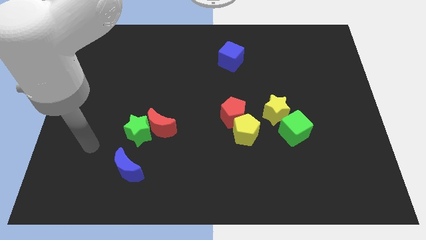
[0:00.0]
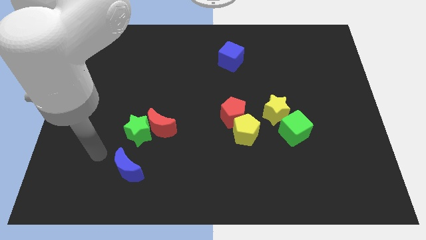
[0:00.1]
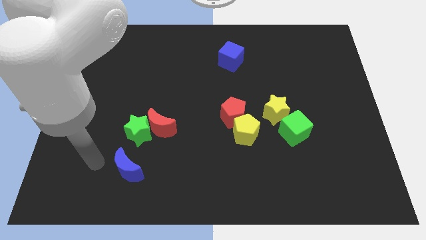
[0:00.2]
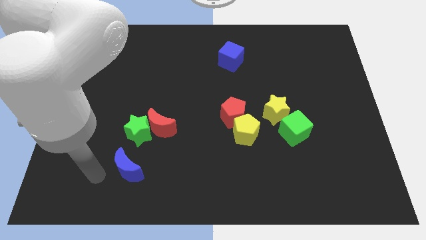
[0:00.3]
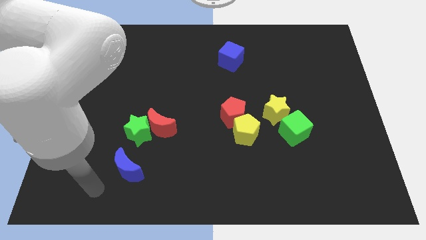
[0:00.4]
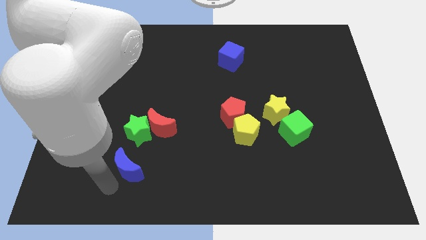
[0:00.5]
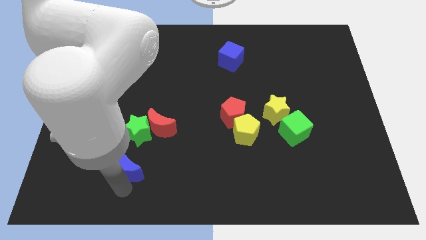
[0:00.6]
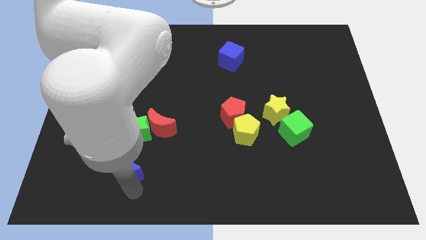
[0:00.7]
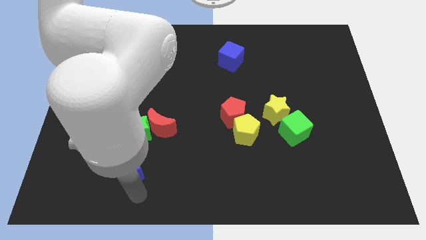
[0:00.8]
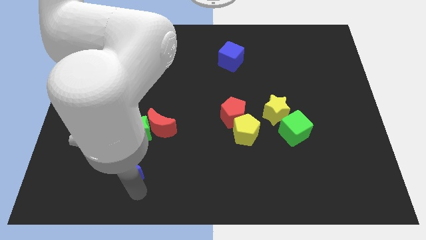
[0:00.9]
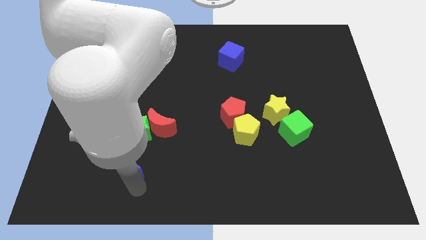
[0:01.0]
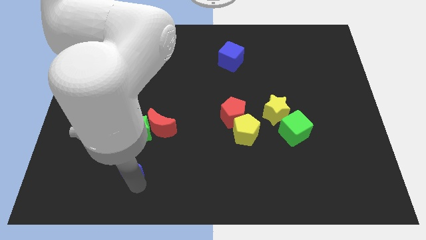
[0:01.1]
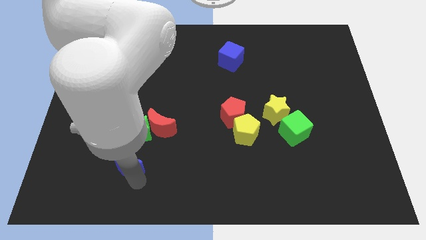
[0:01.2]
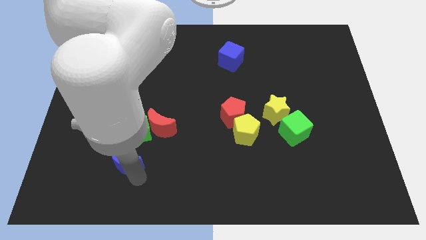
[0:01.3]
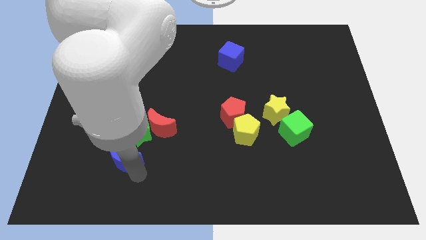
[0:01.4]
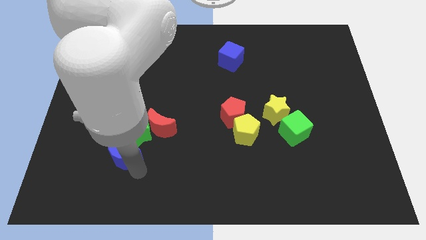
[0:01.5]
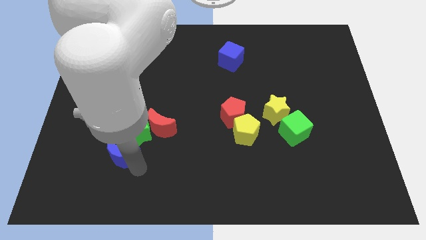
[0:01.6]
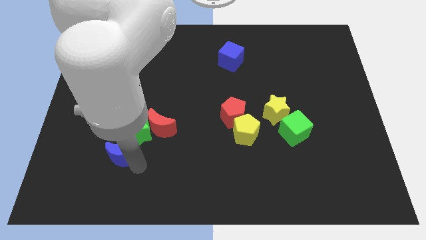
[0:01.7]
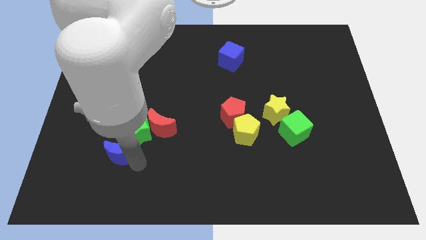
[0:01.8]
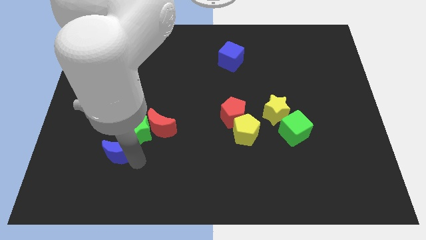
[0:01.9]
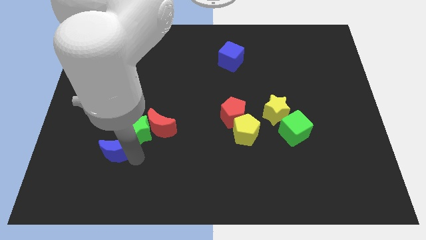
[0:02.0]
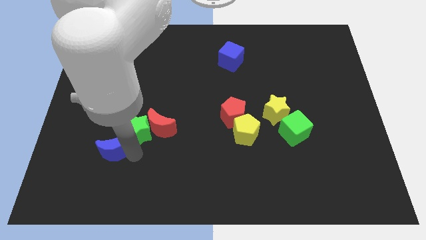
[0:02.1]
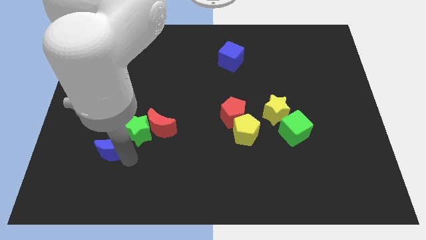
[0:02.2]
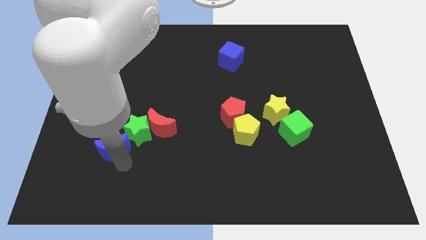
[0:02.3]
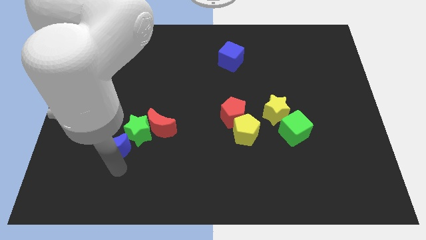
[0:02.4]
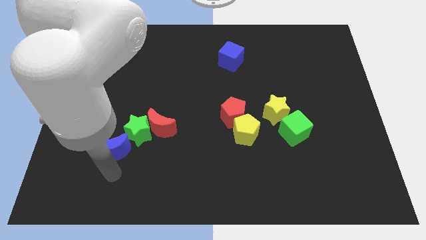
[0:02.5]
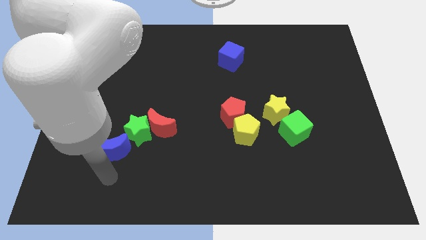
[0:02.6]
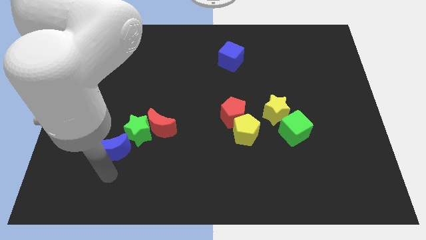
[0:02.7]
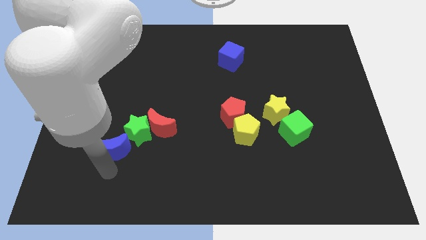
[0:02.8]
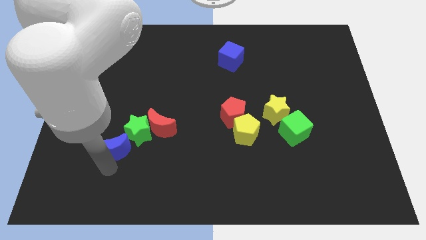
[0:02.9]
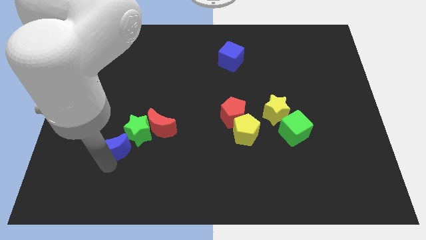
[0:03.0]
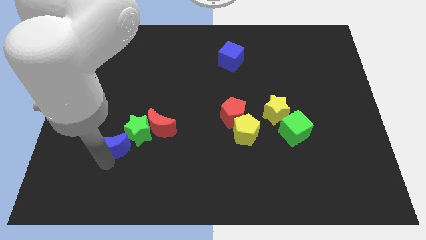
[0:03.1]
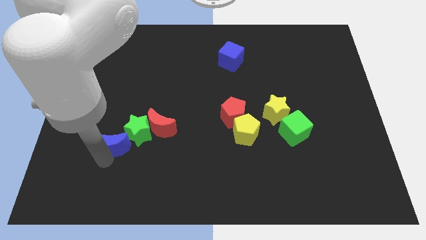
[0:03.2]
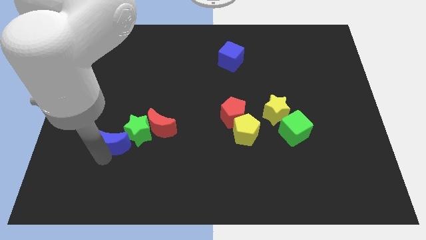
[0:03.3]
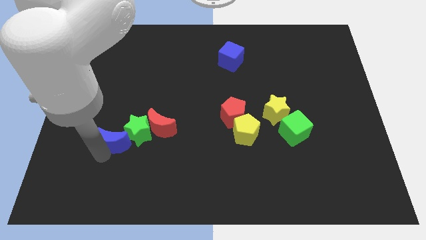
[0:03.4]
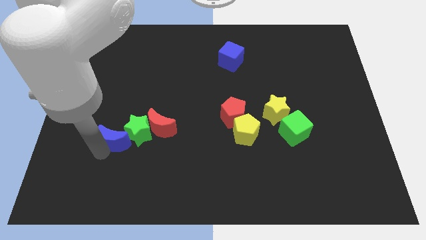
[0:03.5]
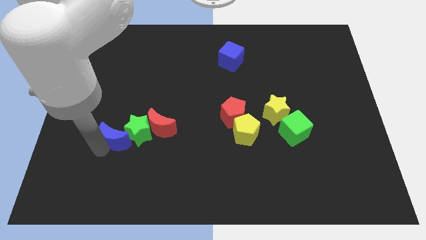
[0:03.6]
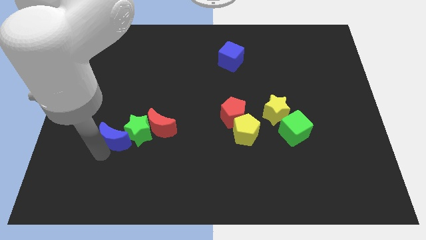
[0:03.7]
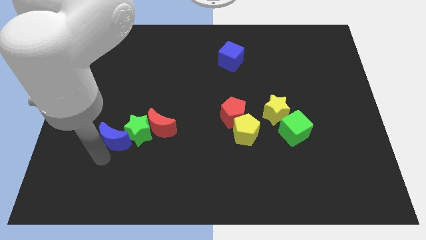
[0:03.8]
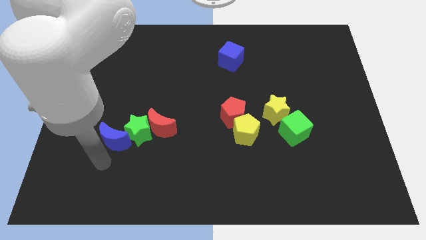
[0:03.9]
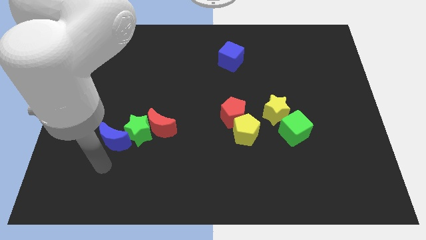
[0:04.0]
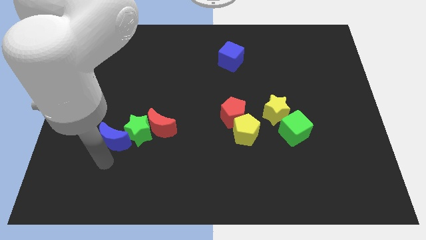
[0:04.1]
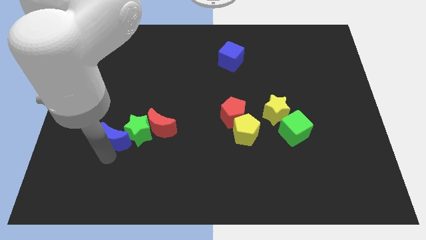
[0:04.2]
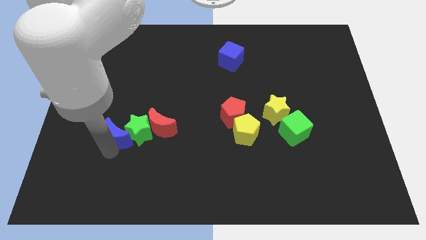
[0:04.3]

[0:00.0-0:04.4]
slide the blue moon somewhat up

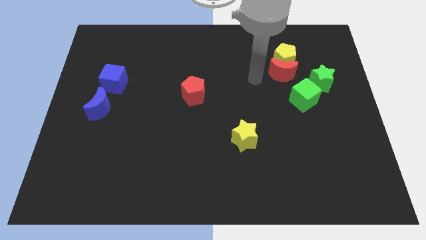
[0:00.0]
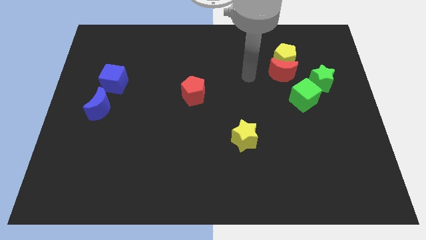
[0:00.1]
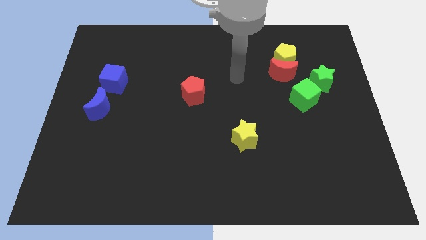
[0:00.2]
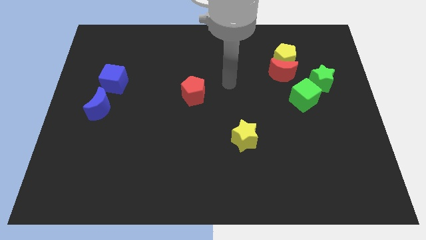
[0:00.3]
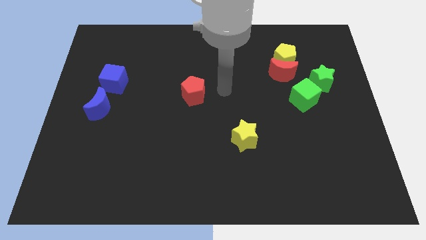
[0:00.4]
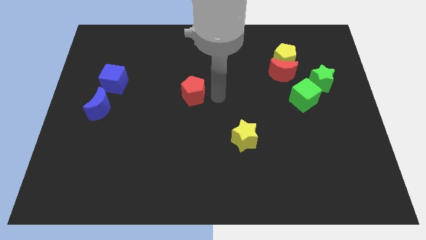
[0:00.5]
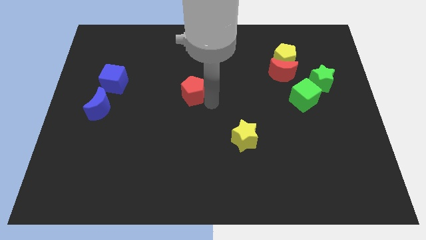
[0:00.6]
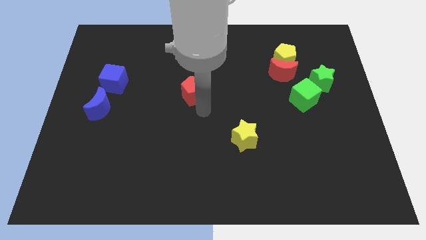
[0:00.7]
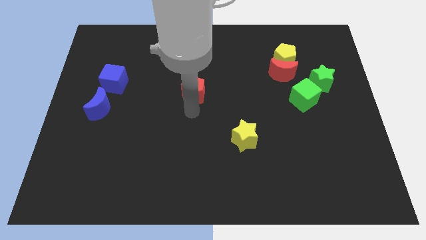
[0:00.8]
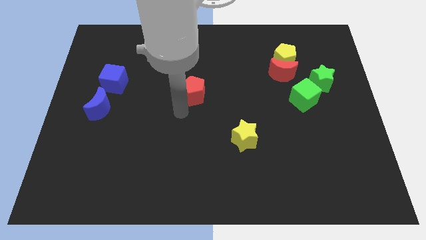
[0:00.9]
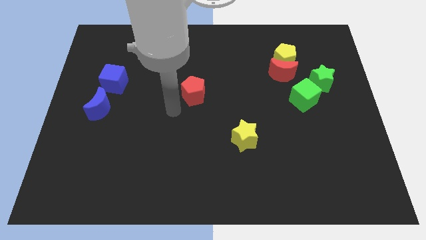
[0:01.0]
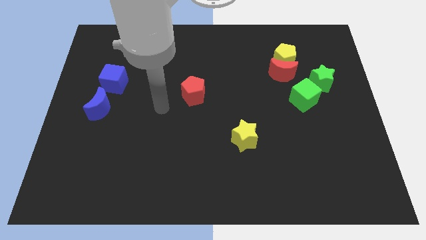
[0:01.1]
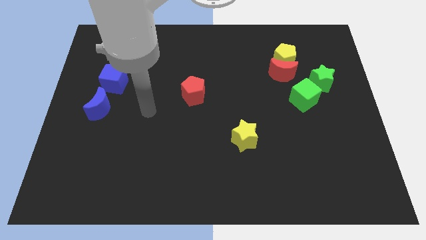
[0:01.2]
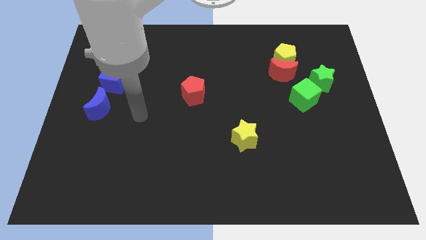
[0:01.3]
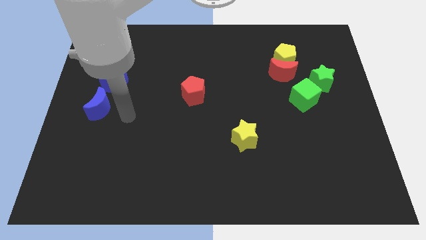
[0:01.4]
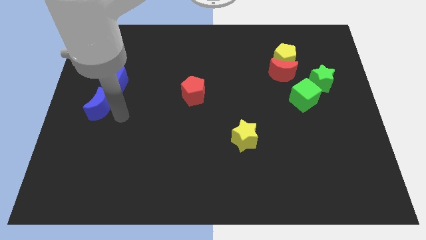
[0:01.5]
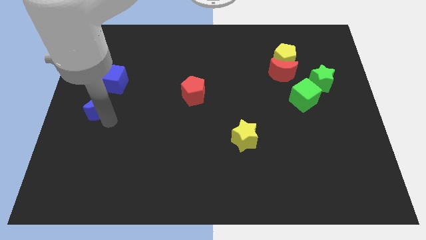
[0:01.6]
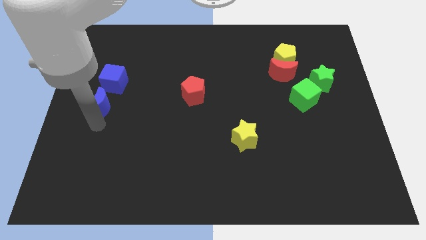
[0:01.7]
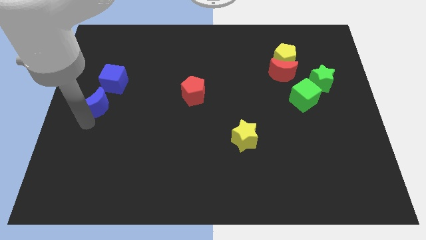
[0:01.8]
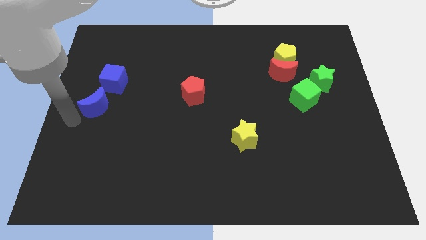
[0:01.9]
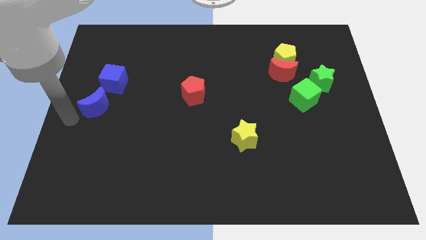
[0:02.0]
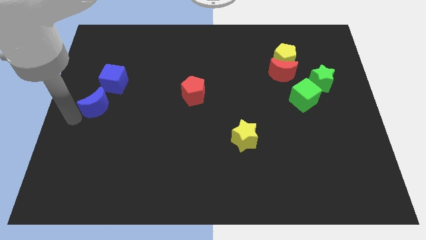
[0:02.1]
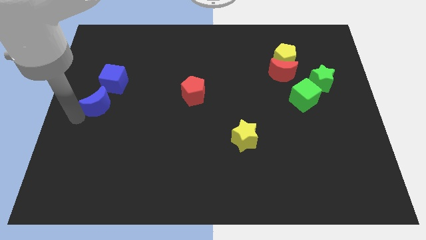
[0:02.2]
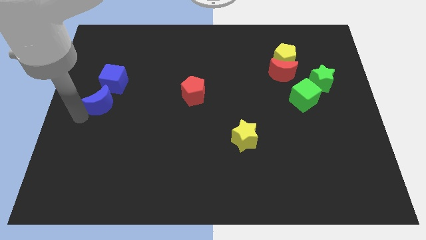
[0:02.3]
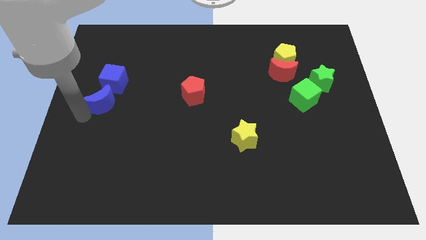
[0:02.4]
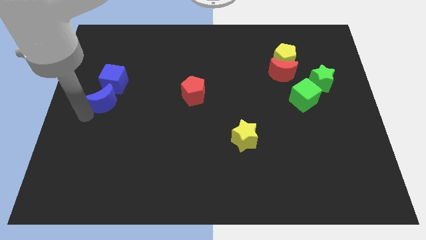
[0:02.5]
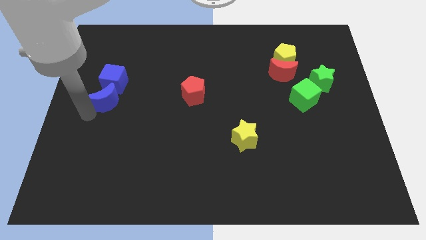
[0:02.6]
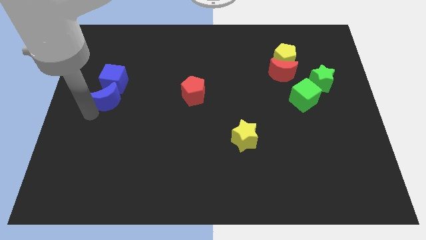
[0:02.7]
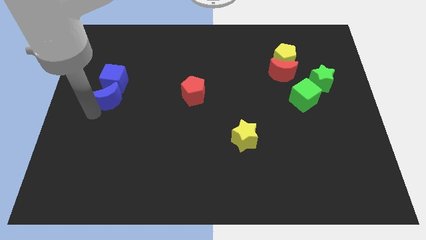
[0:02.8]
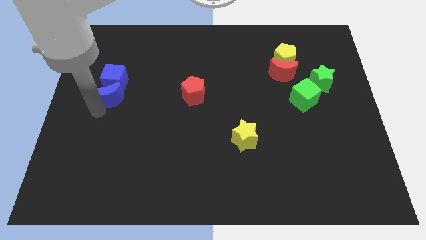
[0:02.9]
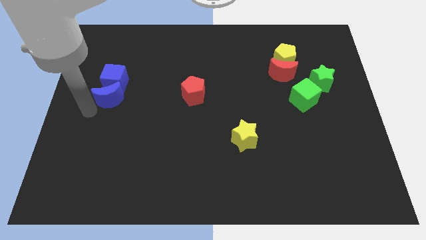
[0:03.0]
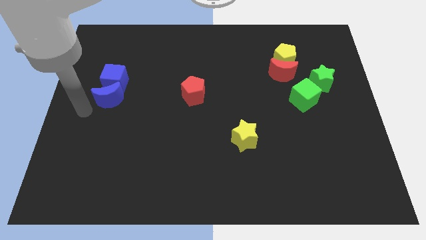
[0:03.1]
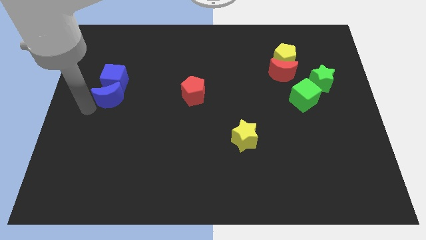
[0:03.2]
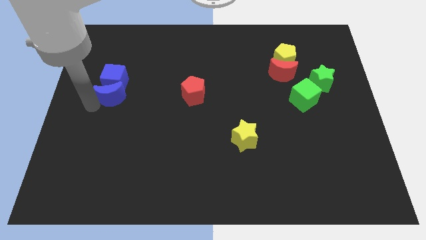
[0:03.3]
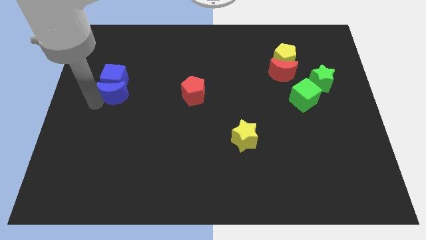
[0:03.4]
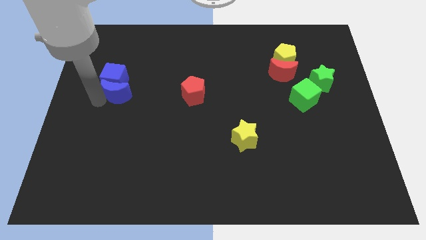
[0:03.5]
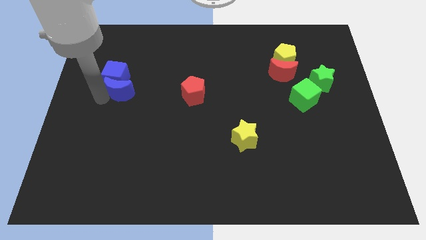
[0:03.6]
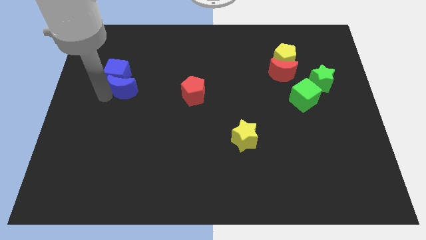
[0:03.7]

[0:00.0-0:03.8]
move the blue moon up and to the right somewhat
